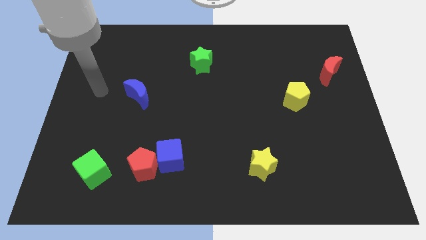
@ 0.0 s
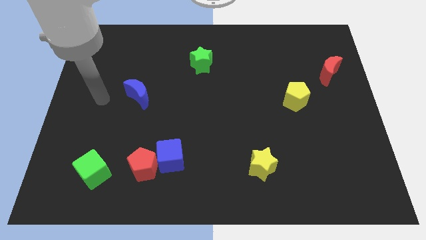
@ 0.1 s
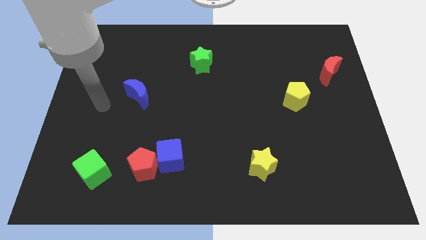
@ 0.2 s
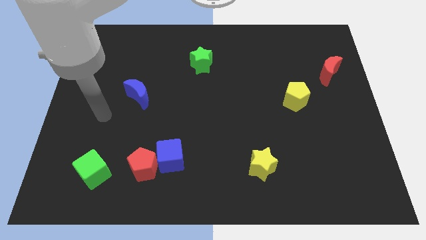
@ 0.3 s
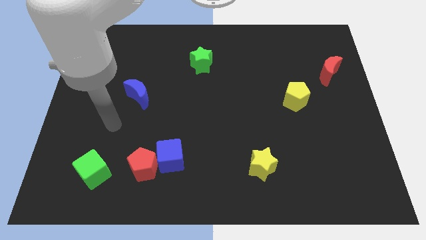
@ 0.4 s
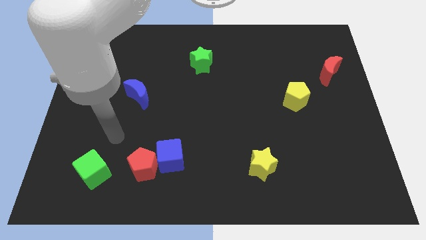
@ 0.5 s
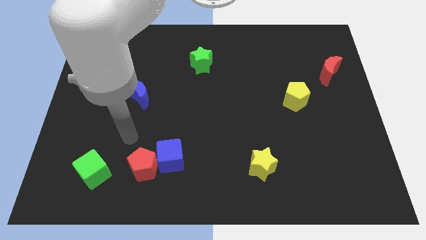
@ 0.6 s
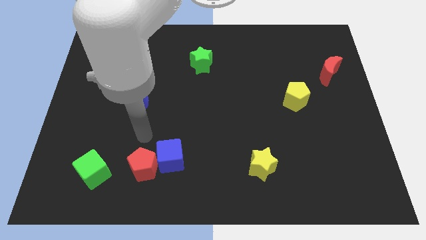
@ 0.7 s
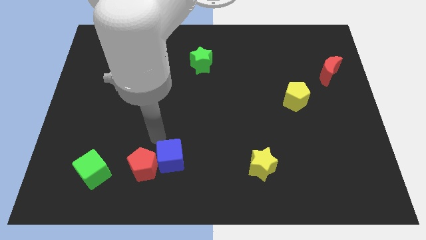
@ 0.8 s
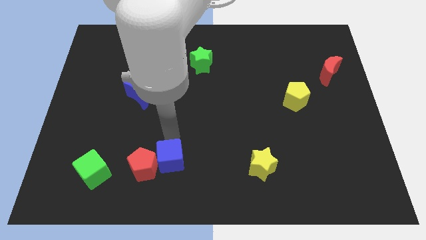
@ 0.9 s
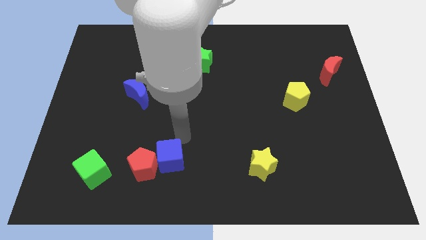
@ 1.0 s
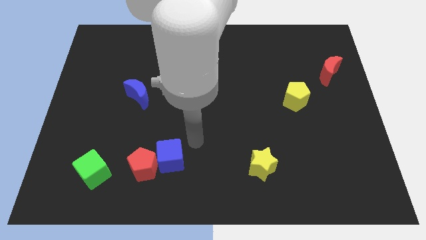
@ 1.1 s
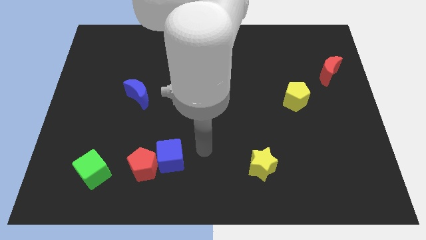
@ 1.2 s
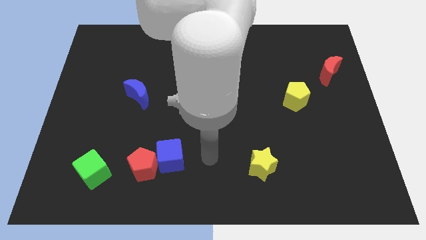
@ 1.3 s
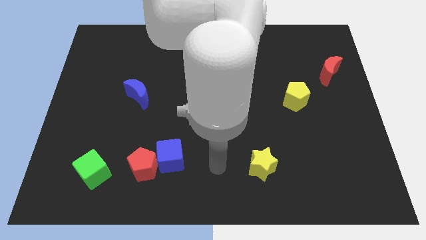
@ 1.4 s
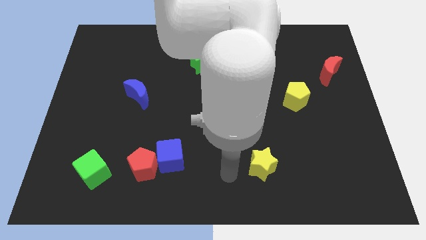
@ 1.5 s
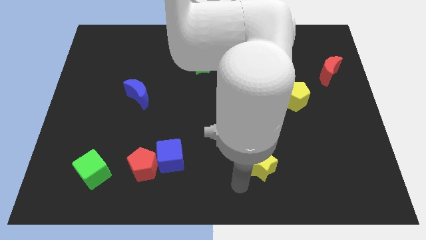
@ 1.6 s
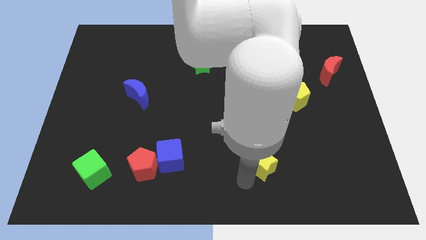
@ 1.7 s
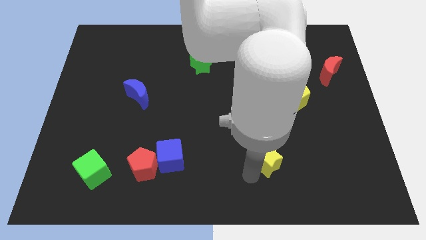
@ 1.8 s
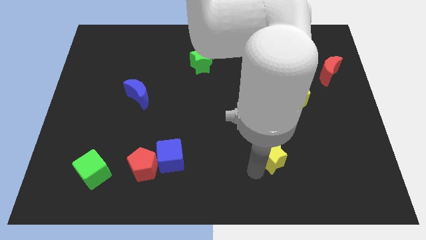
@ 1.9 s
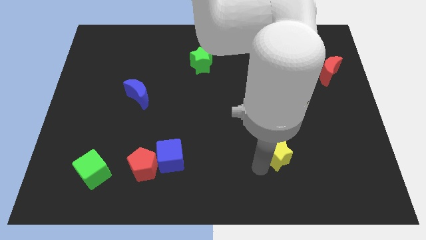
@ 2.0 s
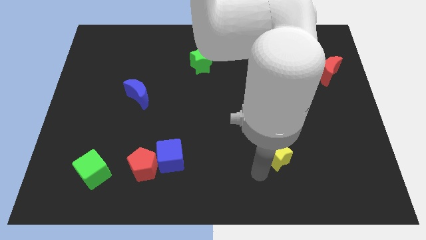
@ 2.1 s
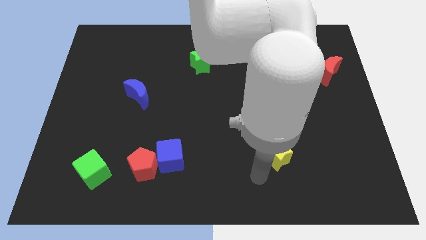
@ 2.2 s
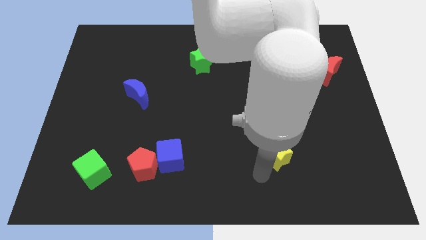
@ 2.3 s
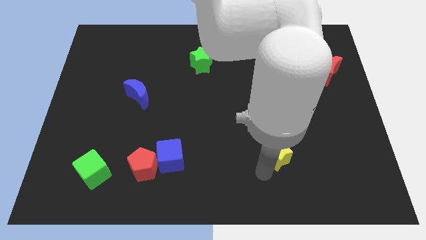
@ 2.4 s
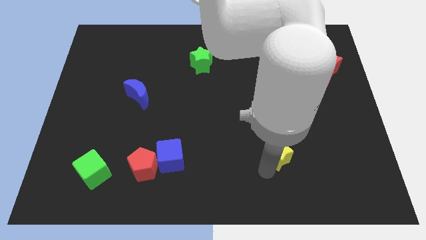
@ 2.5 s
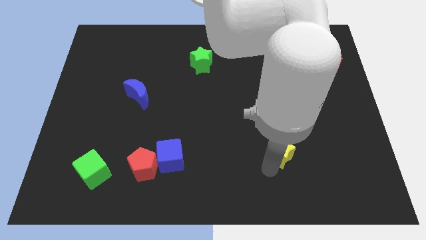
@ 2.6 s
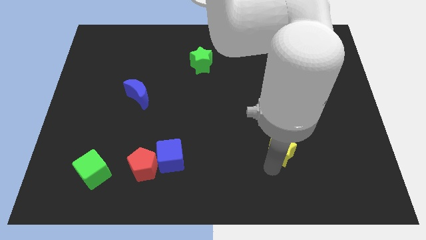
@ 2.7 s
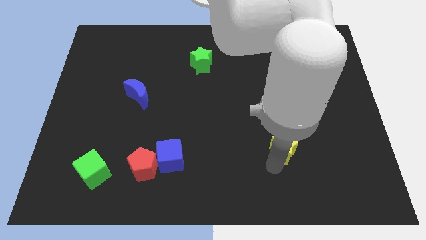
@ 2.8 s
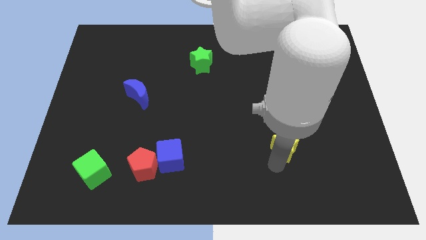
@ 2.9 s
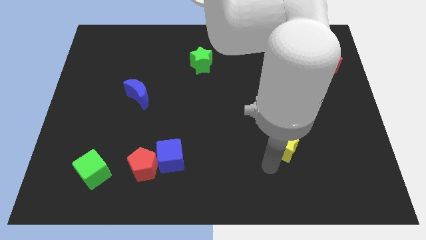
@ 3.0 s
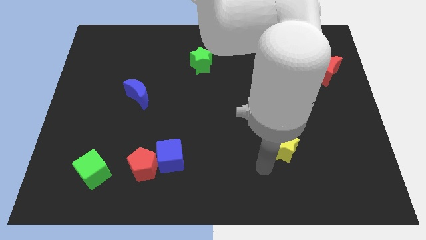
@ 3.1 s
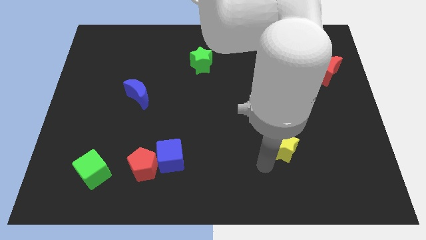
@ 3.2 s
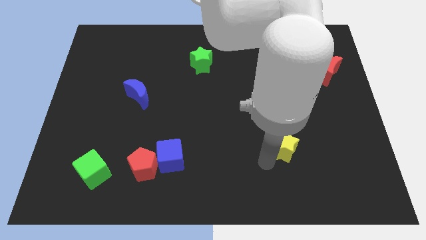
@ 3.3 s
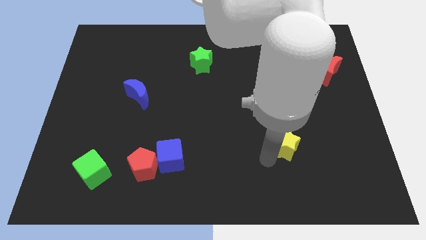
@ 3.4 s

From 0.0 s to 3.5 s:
slightly push the yellow star up and then to the right

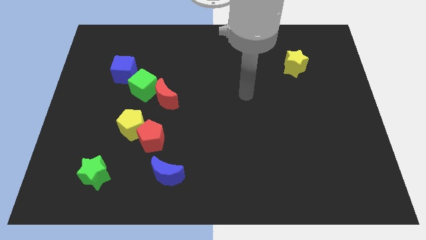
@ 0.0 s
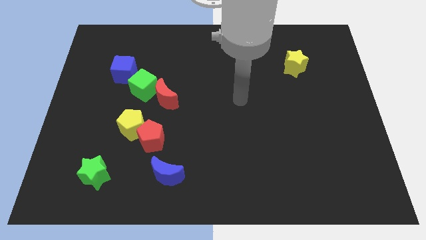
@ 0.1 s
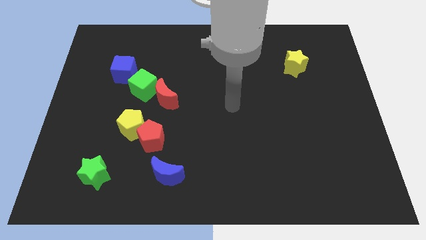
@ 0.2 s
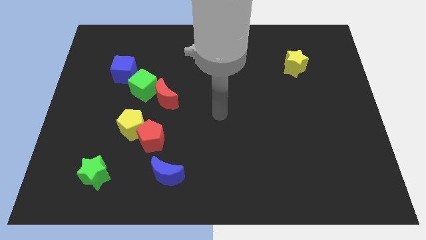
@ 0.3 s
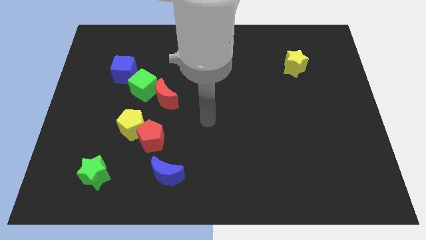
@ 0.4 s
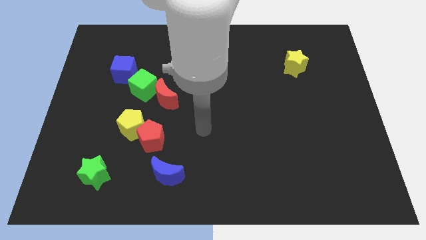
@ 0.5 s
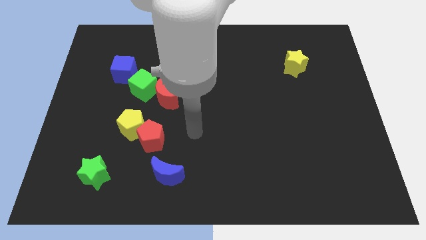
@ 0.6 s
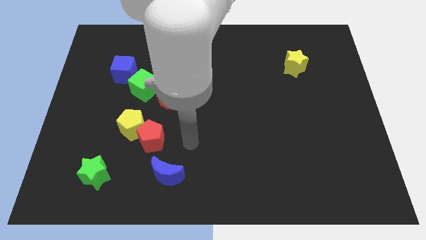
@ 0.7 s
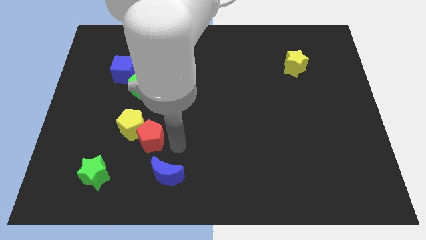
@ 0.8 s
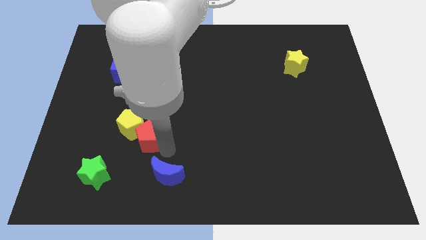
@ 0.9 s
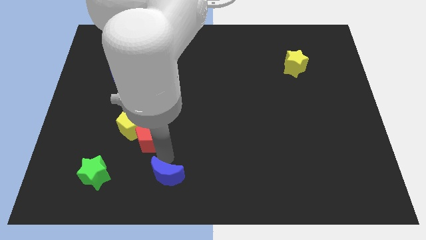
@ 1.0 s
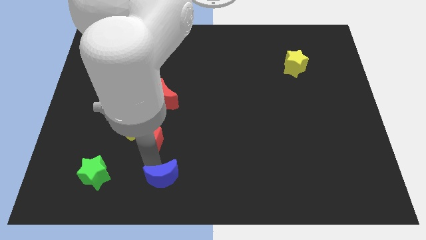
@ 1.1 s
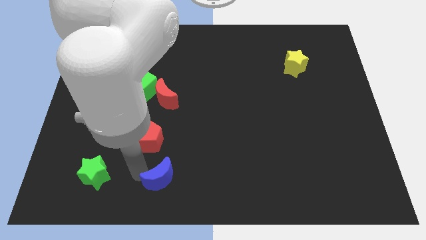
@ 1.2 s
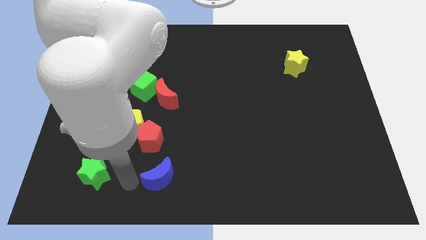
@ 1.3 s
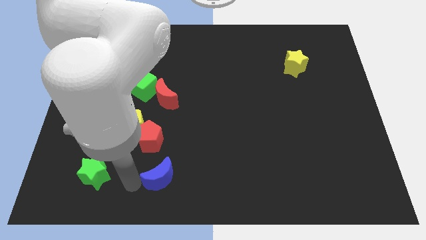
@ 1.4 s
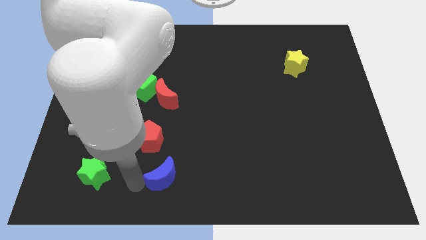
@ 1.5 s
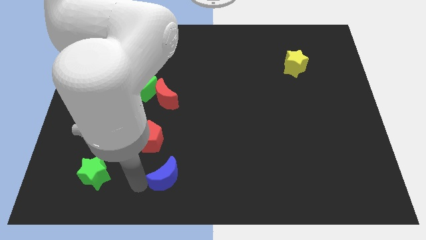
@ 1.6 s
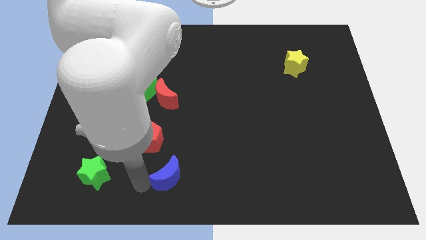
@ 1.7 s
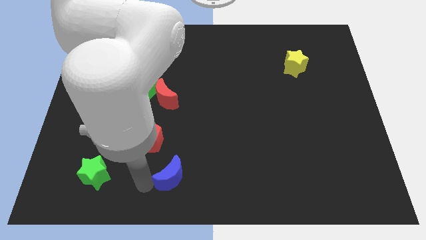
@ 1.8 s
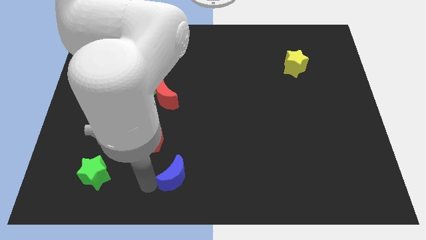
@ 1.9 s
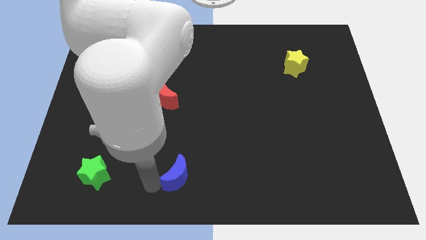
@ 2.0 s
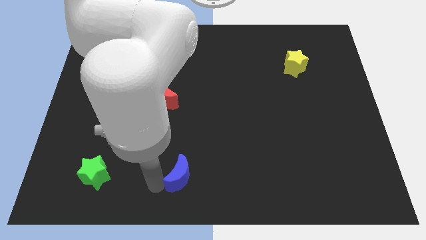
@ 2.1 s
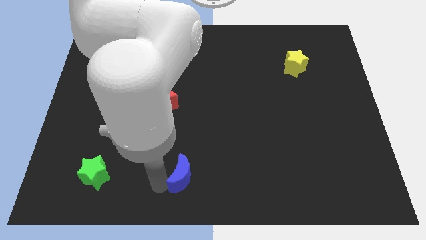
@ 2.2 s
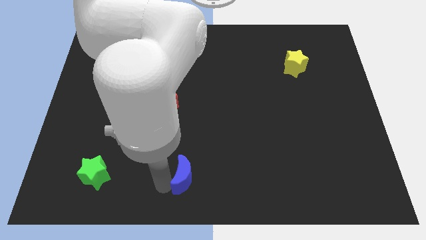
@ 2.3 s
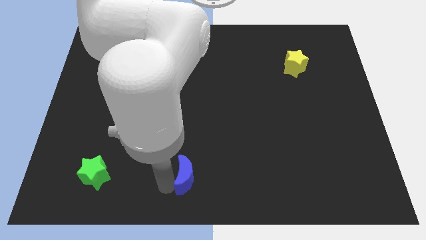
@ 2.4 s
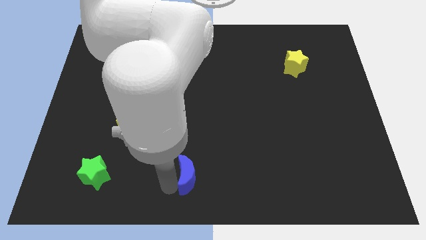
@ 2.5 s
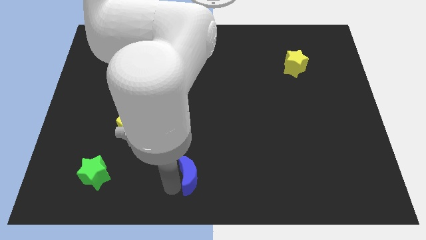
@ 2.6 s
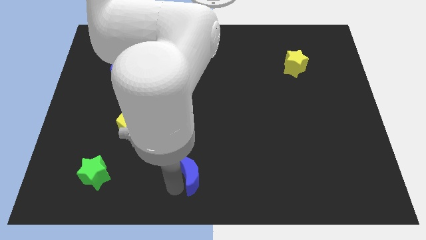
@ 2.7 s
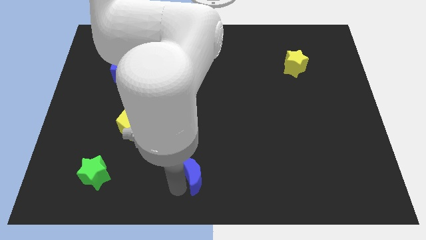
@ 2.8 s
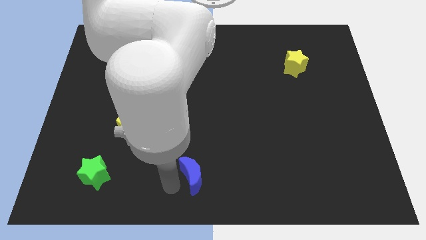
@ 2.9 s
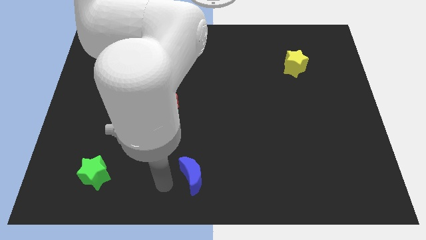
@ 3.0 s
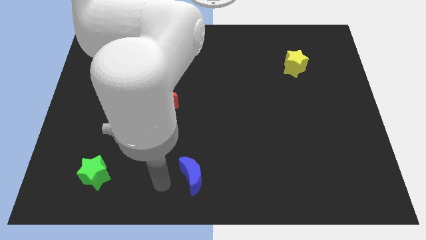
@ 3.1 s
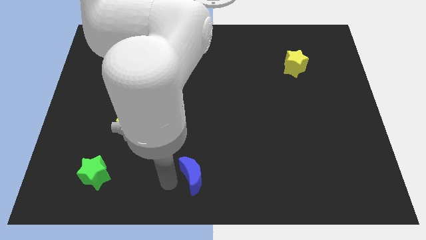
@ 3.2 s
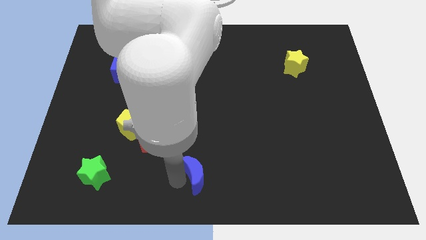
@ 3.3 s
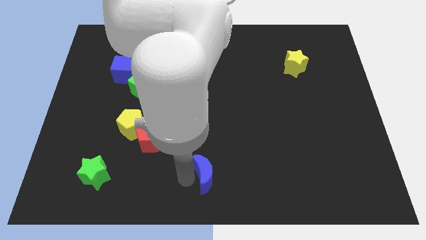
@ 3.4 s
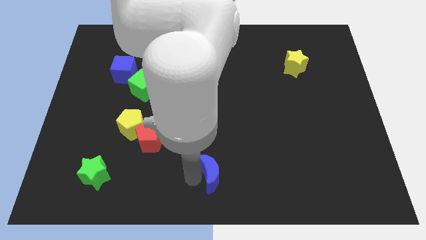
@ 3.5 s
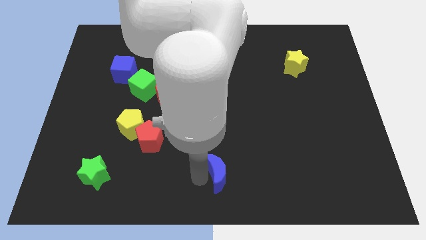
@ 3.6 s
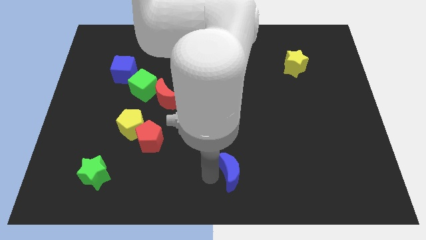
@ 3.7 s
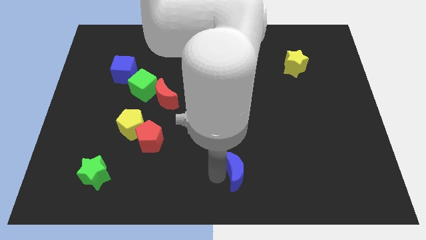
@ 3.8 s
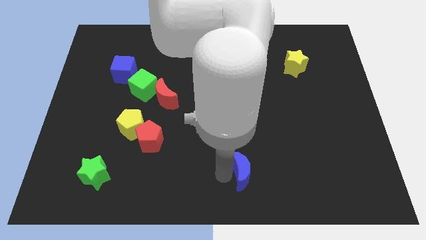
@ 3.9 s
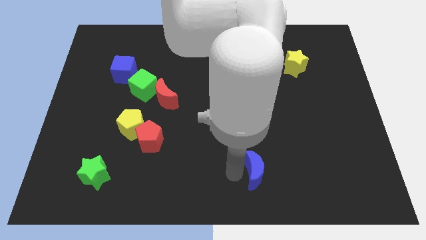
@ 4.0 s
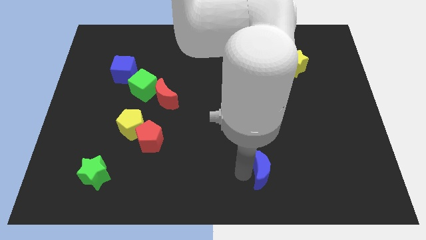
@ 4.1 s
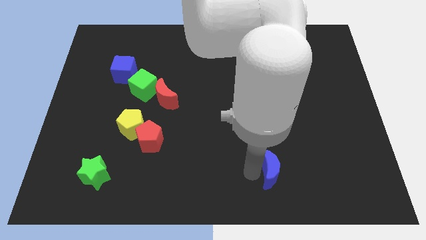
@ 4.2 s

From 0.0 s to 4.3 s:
move the blue moon to the right
